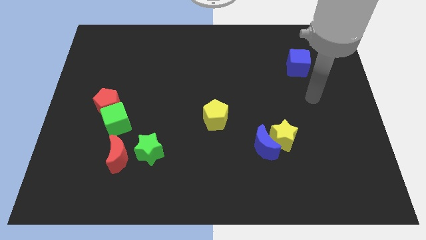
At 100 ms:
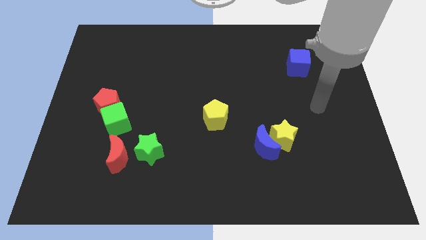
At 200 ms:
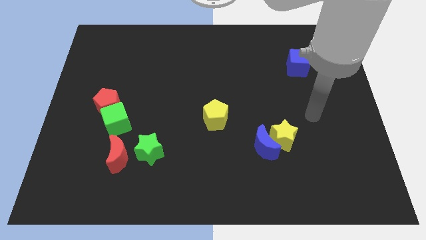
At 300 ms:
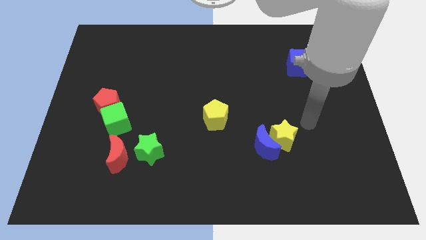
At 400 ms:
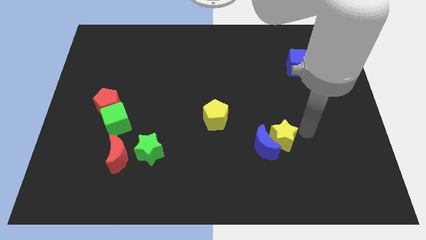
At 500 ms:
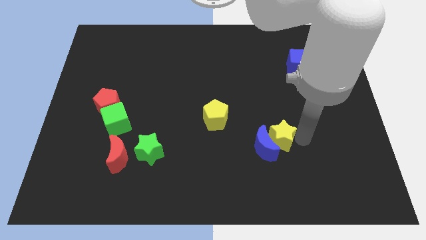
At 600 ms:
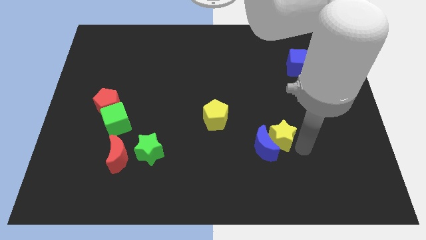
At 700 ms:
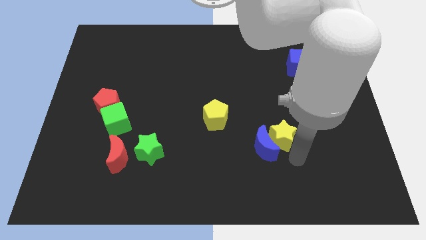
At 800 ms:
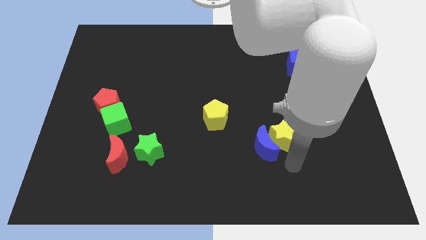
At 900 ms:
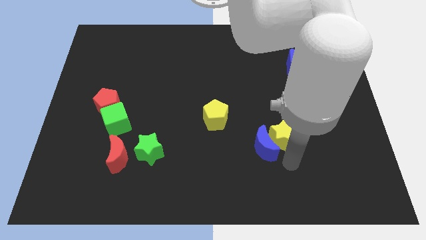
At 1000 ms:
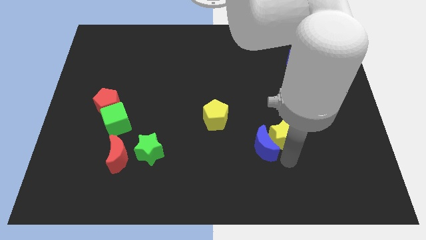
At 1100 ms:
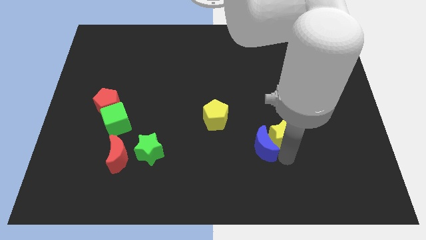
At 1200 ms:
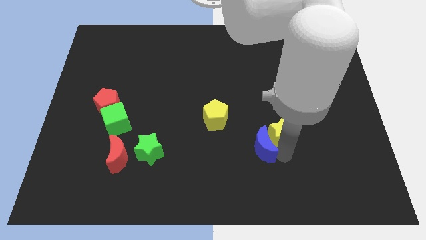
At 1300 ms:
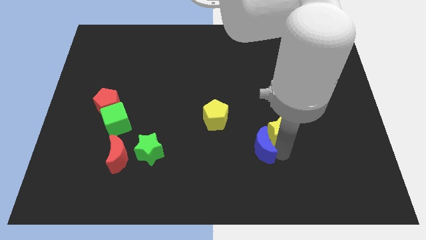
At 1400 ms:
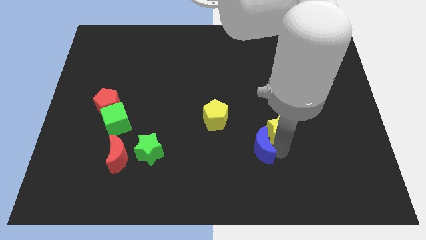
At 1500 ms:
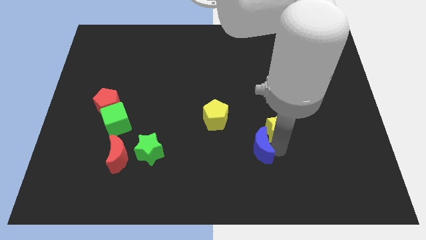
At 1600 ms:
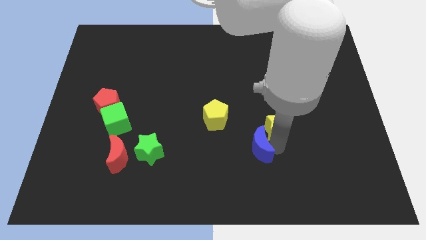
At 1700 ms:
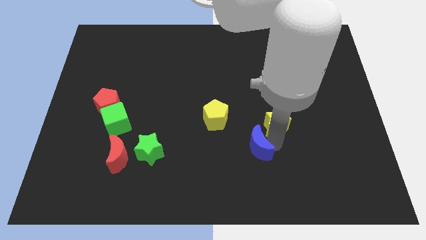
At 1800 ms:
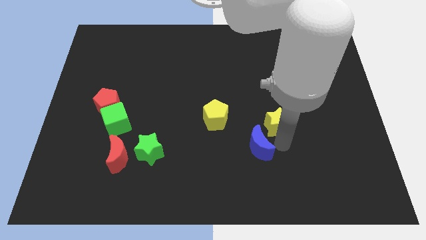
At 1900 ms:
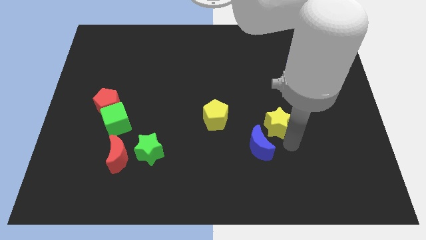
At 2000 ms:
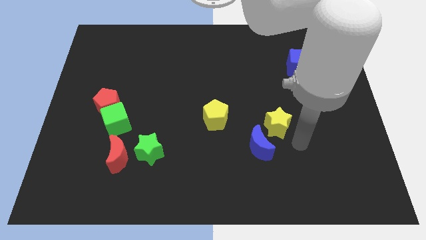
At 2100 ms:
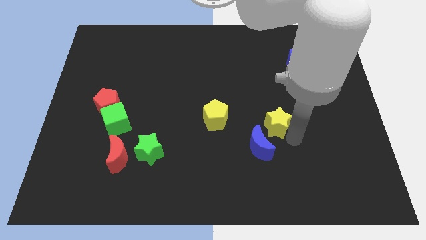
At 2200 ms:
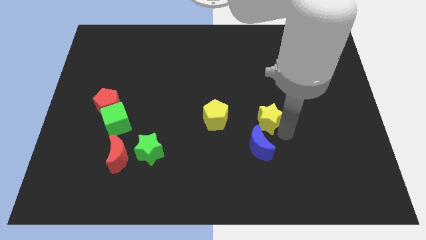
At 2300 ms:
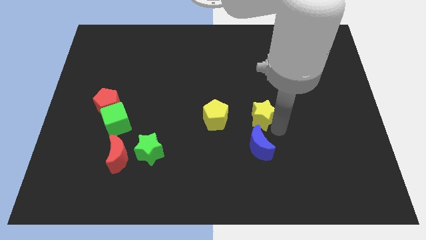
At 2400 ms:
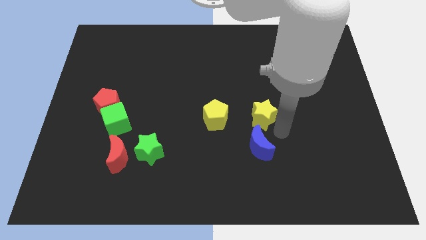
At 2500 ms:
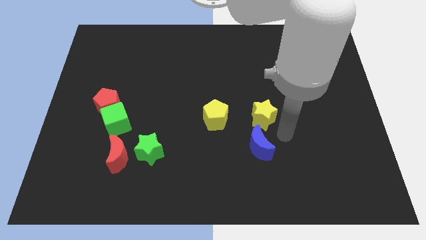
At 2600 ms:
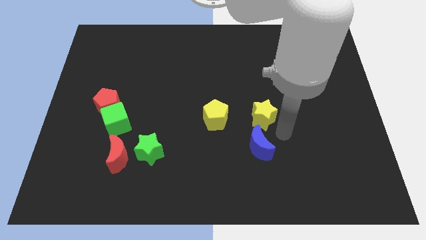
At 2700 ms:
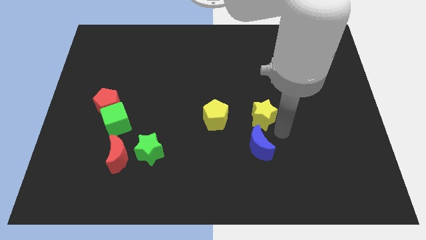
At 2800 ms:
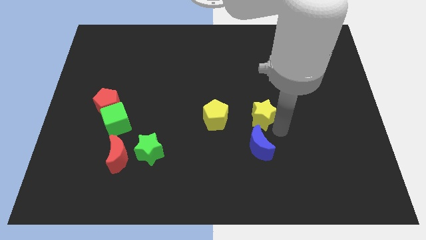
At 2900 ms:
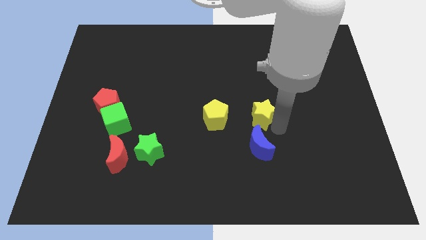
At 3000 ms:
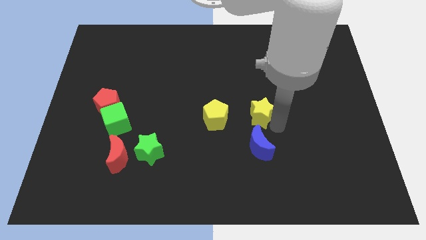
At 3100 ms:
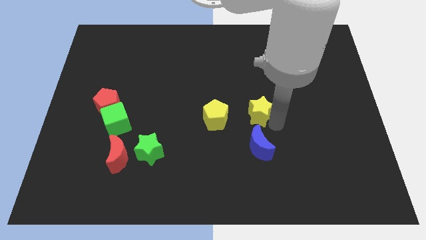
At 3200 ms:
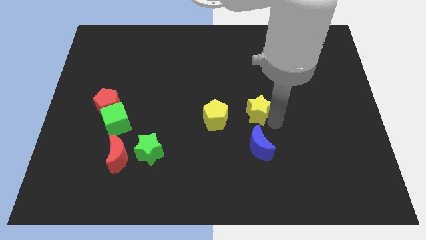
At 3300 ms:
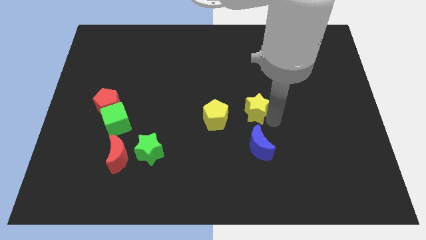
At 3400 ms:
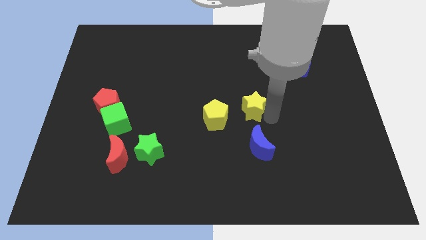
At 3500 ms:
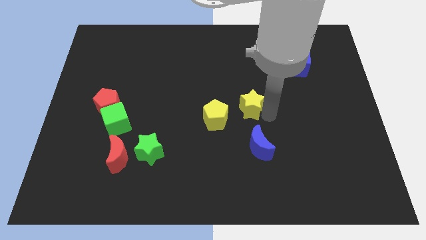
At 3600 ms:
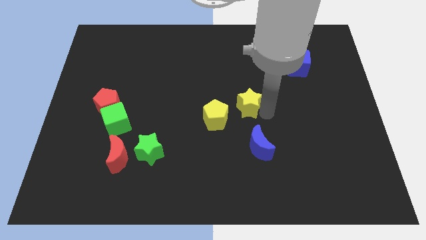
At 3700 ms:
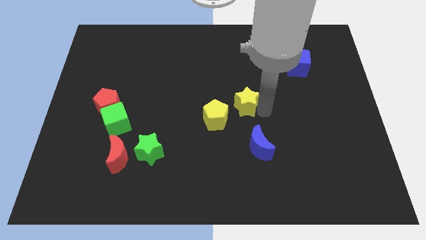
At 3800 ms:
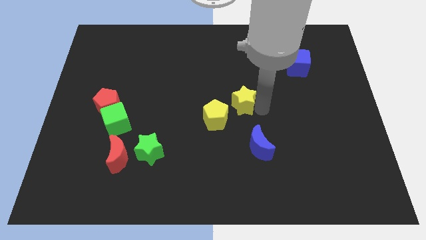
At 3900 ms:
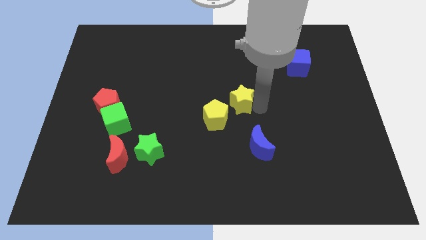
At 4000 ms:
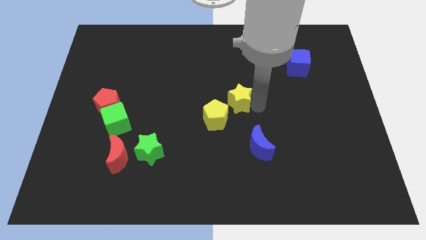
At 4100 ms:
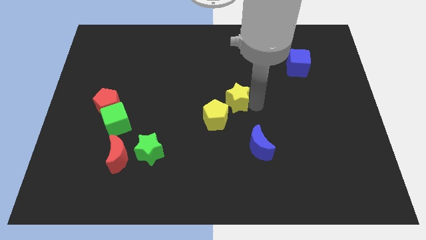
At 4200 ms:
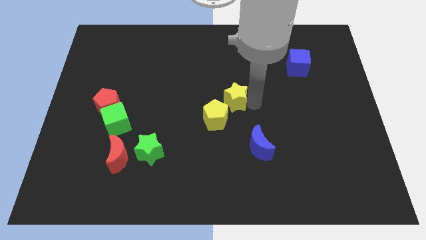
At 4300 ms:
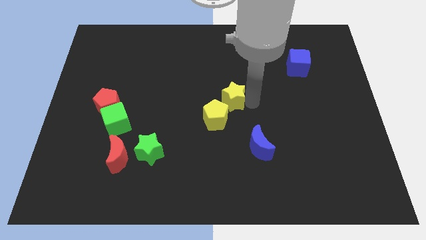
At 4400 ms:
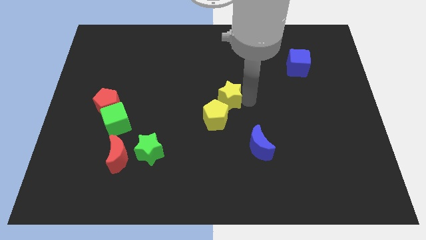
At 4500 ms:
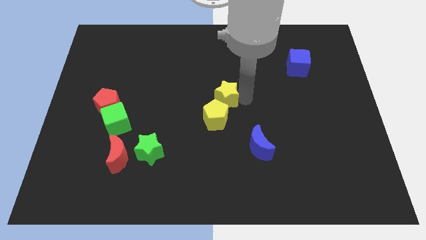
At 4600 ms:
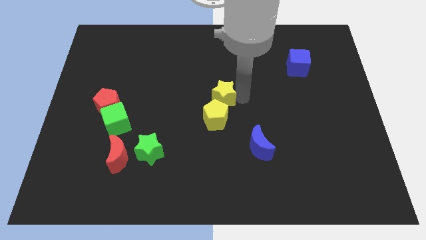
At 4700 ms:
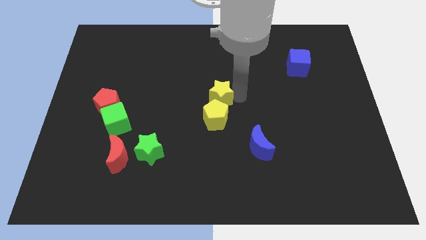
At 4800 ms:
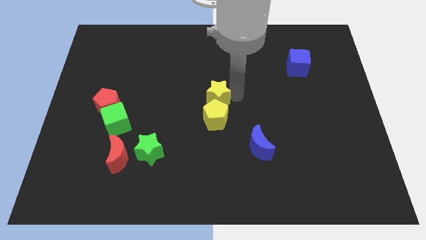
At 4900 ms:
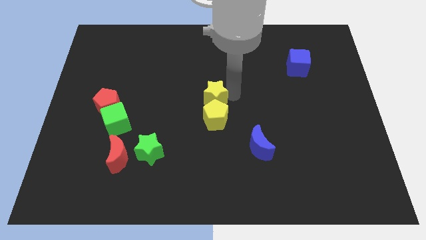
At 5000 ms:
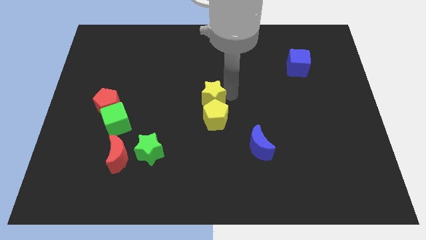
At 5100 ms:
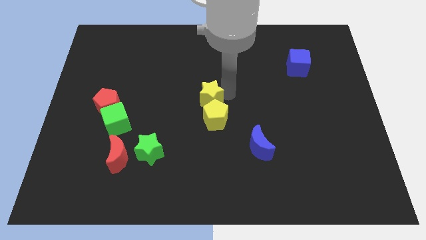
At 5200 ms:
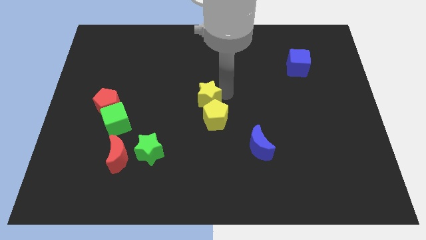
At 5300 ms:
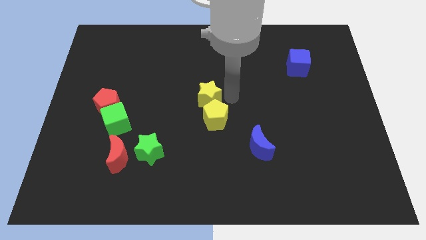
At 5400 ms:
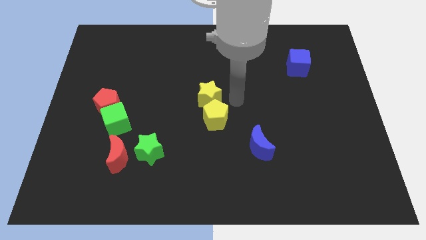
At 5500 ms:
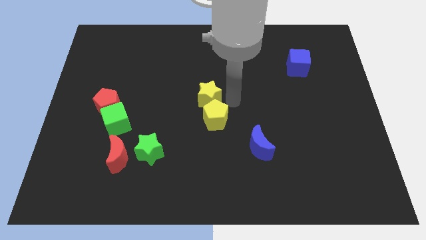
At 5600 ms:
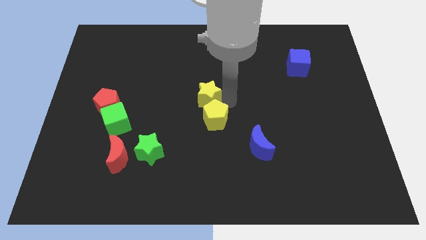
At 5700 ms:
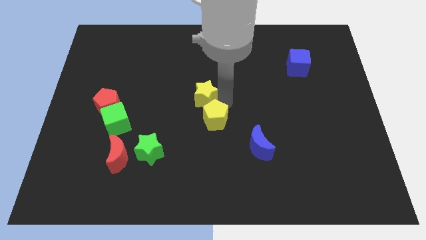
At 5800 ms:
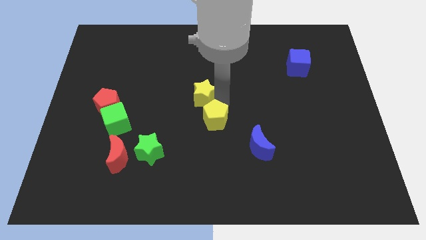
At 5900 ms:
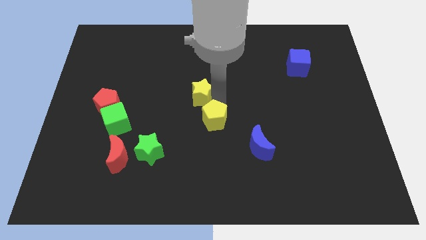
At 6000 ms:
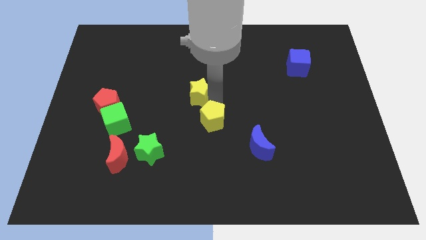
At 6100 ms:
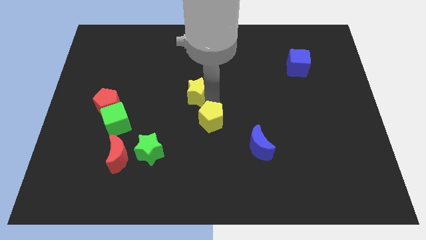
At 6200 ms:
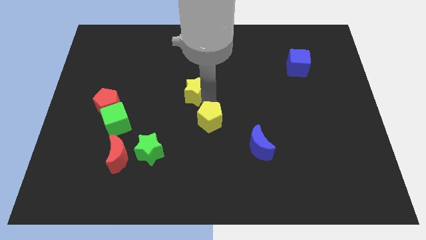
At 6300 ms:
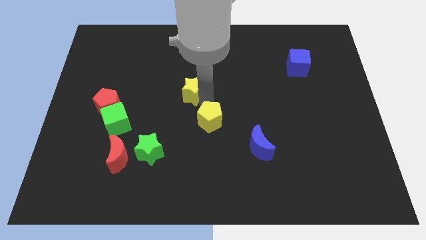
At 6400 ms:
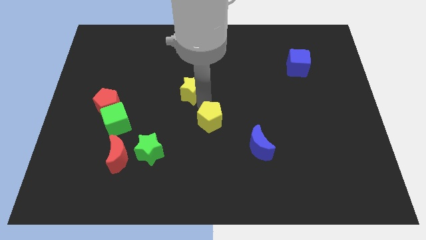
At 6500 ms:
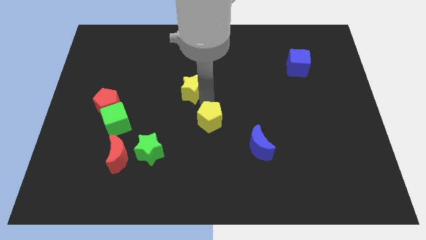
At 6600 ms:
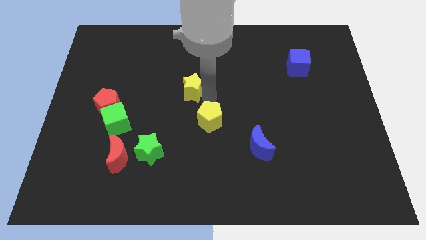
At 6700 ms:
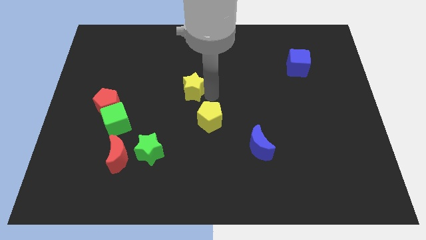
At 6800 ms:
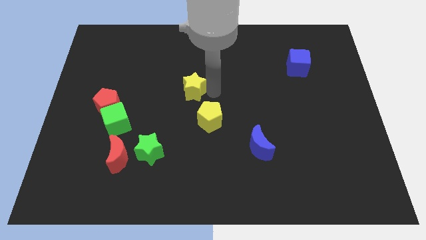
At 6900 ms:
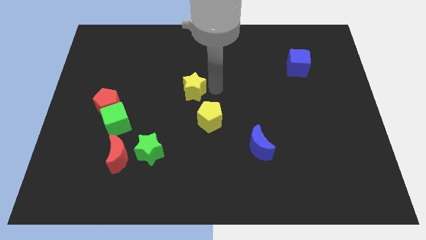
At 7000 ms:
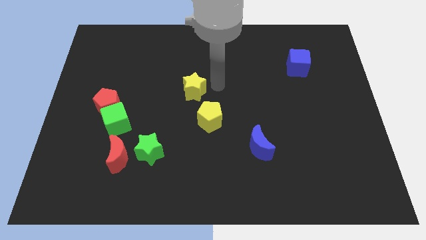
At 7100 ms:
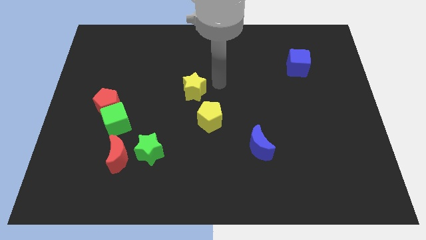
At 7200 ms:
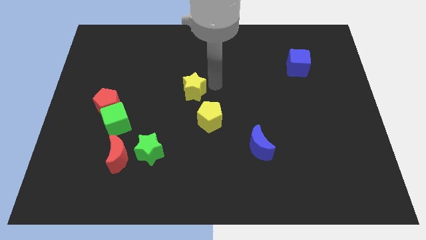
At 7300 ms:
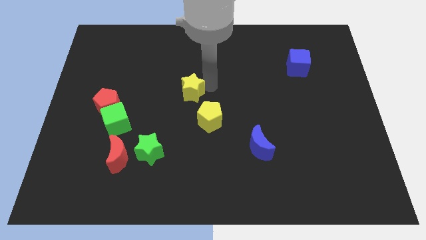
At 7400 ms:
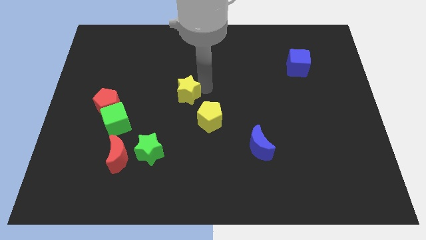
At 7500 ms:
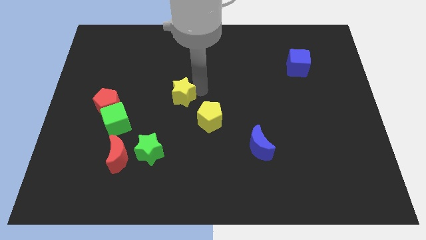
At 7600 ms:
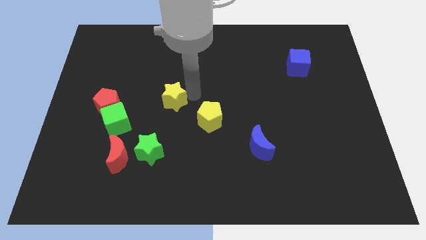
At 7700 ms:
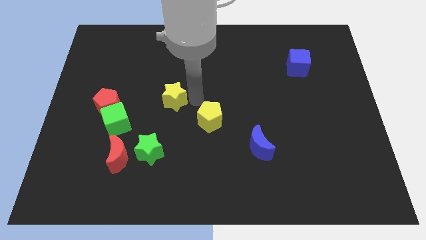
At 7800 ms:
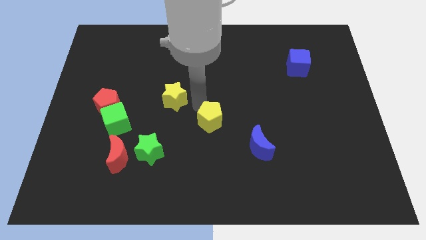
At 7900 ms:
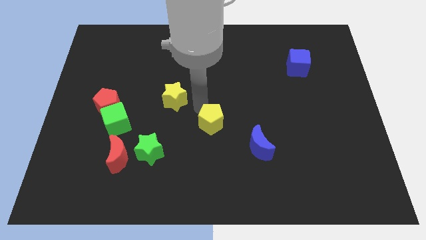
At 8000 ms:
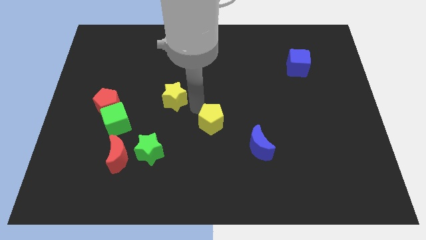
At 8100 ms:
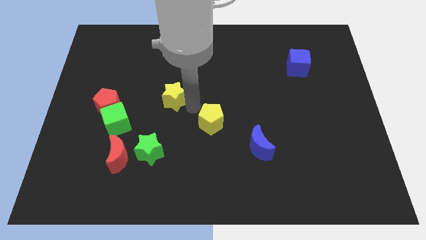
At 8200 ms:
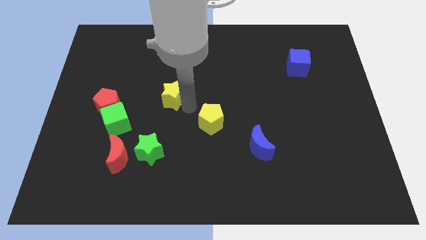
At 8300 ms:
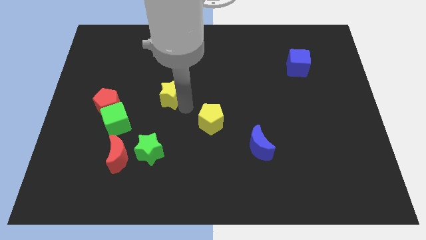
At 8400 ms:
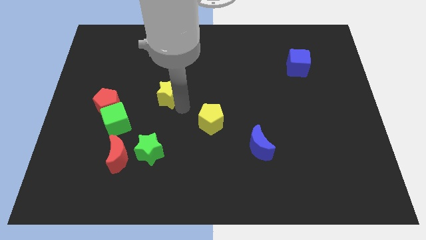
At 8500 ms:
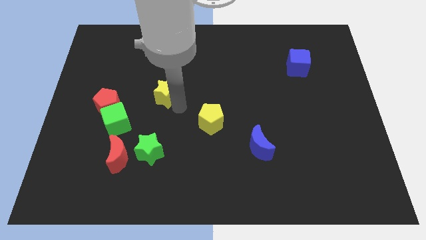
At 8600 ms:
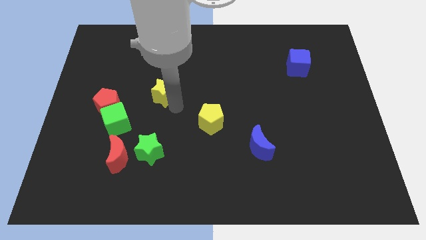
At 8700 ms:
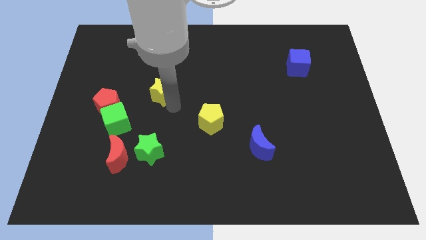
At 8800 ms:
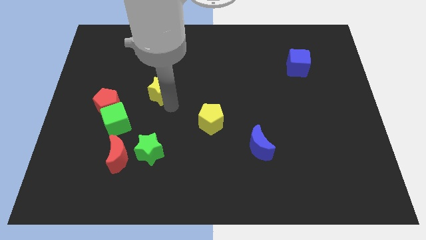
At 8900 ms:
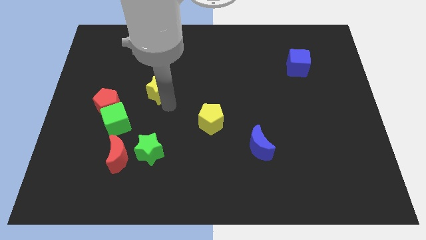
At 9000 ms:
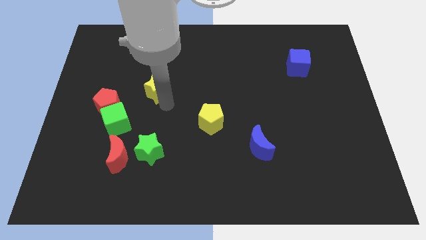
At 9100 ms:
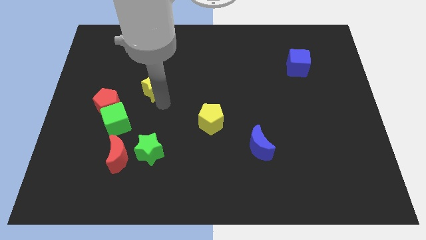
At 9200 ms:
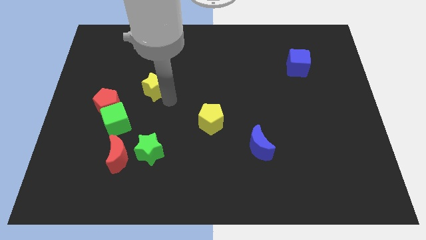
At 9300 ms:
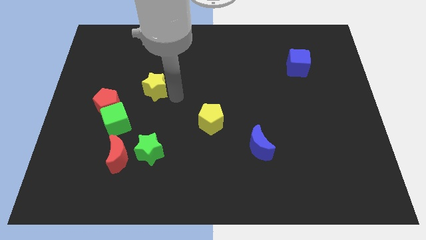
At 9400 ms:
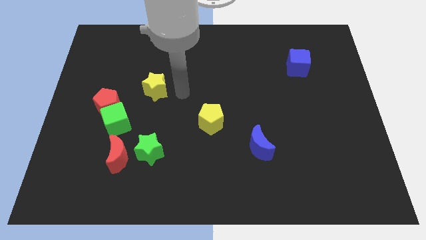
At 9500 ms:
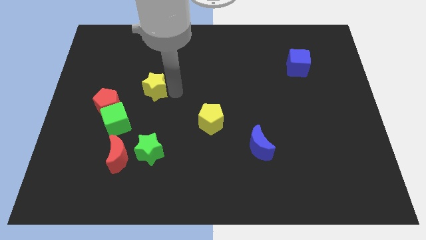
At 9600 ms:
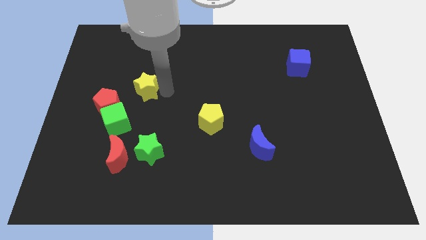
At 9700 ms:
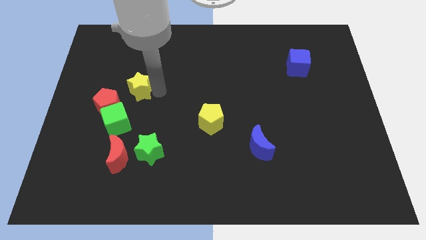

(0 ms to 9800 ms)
push the yellow star to the top side of the green cube
